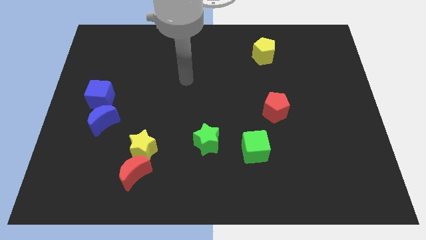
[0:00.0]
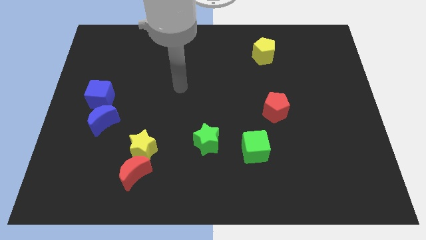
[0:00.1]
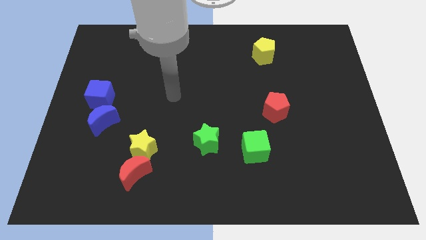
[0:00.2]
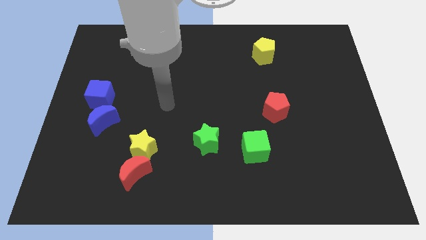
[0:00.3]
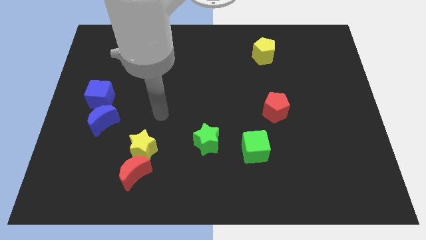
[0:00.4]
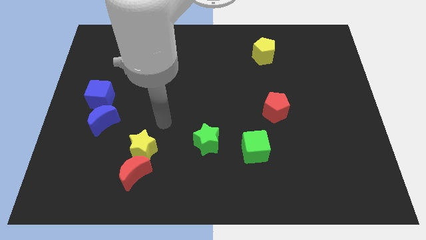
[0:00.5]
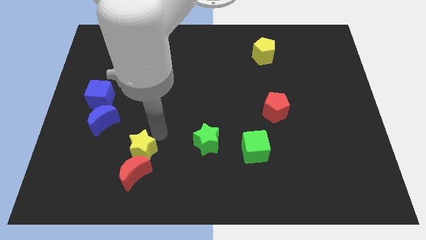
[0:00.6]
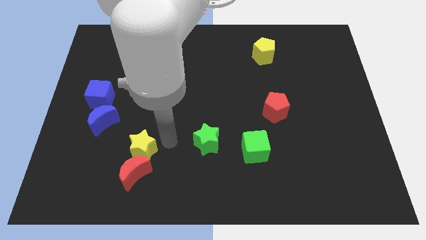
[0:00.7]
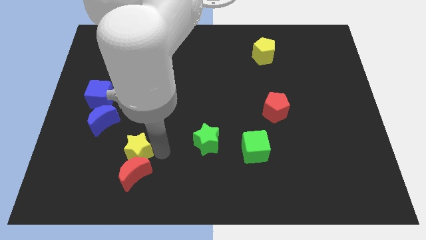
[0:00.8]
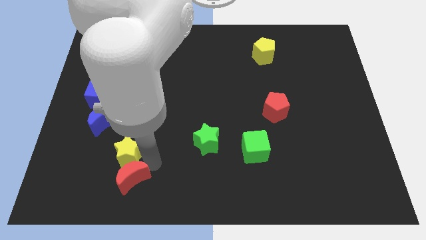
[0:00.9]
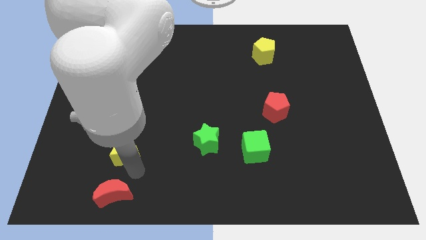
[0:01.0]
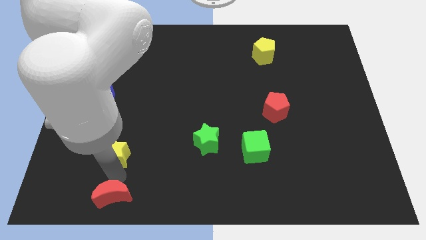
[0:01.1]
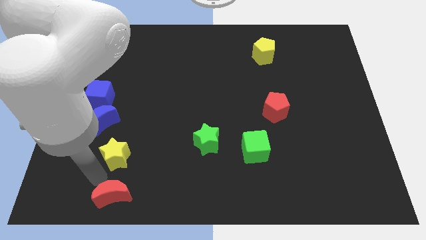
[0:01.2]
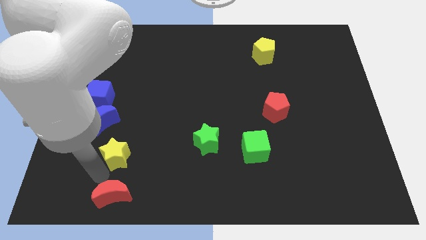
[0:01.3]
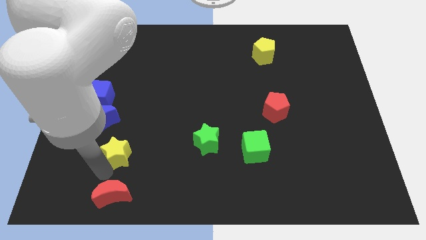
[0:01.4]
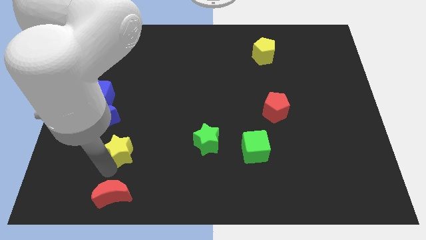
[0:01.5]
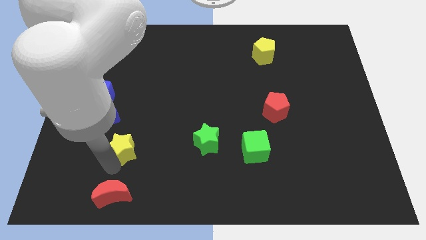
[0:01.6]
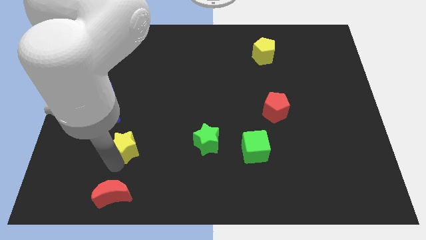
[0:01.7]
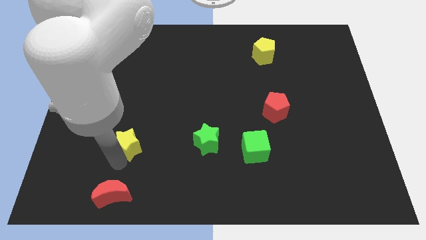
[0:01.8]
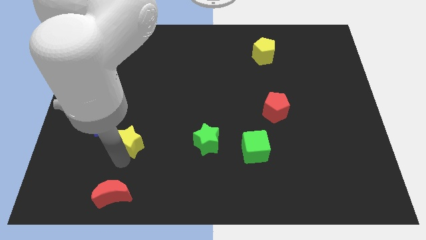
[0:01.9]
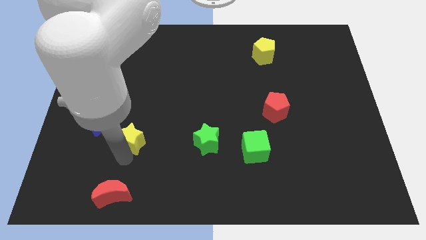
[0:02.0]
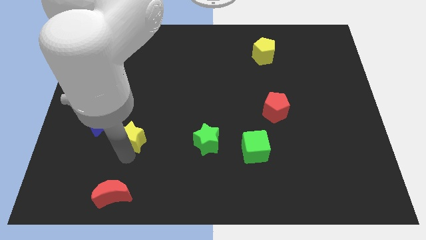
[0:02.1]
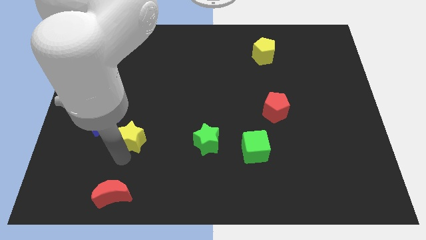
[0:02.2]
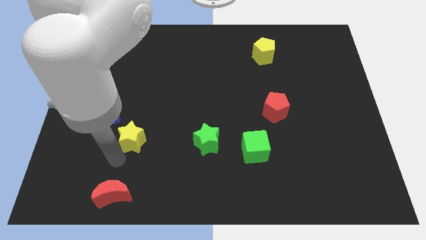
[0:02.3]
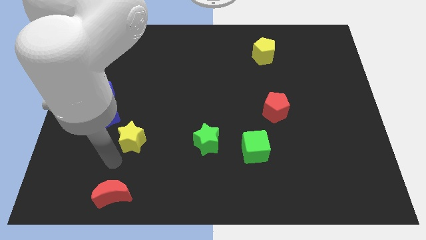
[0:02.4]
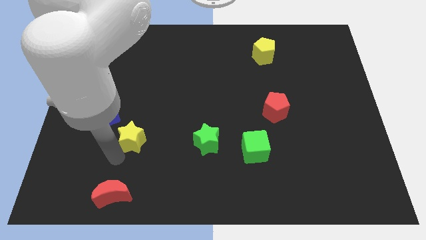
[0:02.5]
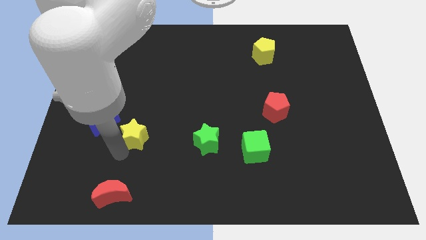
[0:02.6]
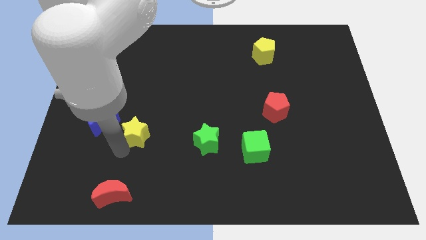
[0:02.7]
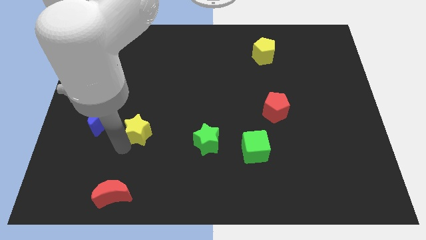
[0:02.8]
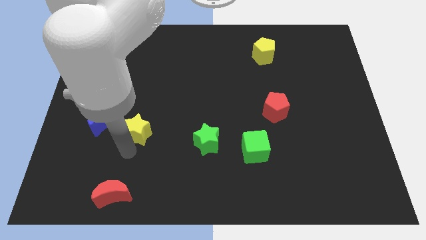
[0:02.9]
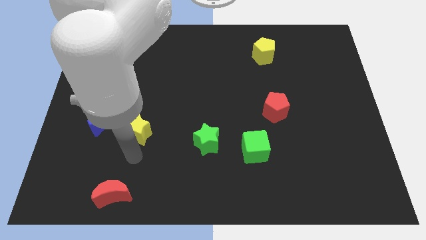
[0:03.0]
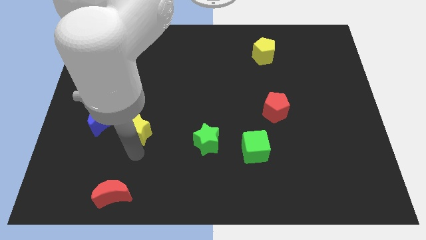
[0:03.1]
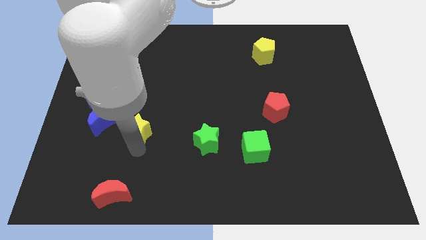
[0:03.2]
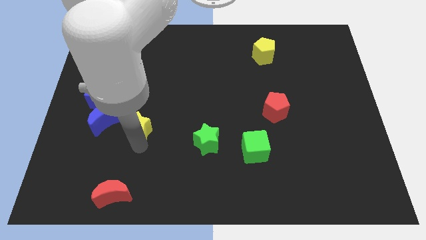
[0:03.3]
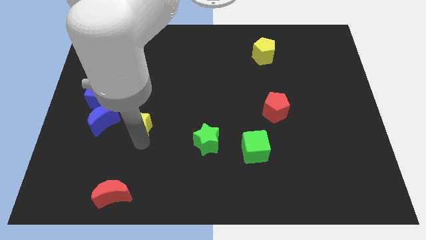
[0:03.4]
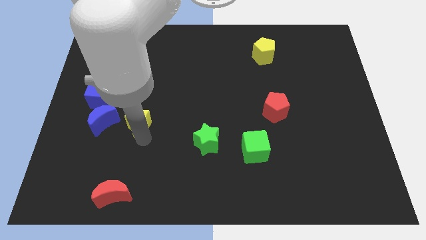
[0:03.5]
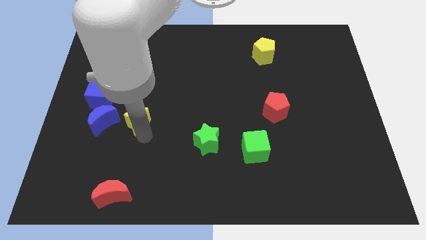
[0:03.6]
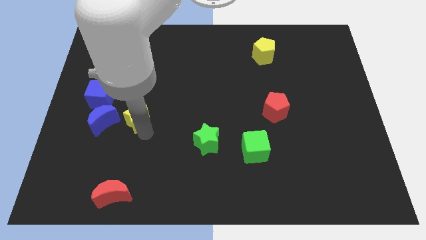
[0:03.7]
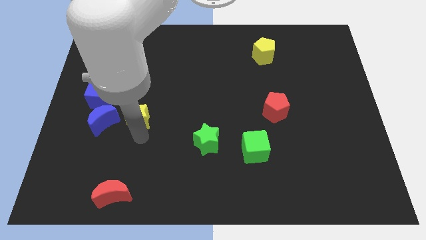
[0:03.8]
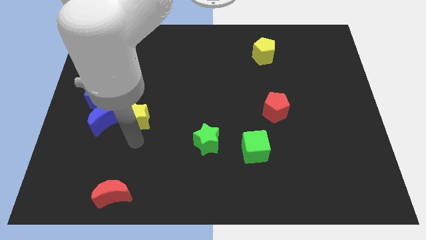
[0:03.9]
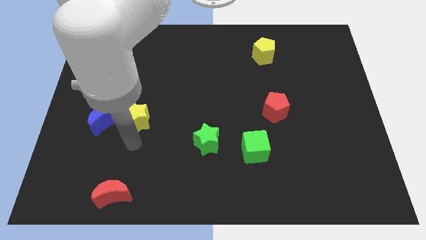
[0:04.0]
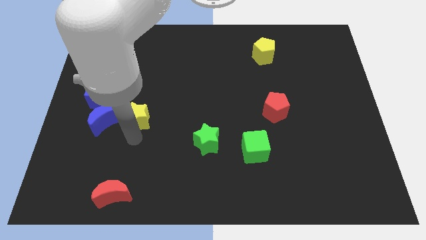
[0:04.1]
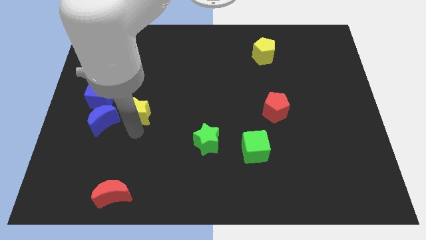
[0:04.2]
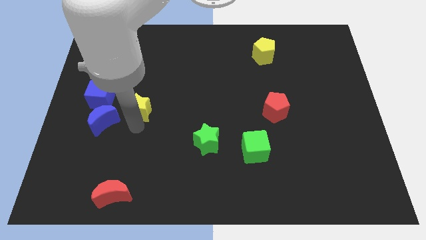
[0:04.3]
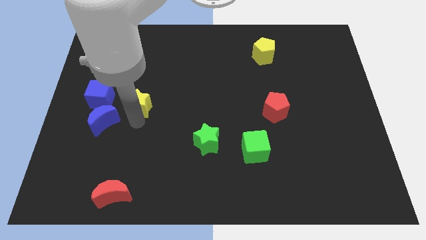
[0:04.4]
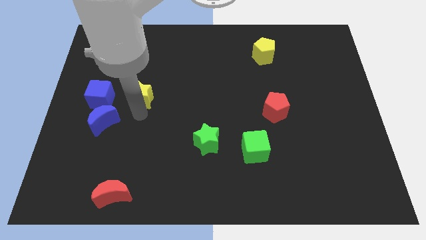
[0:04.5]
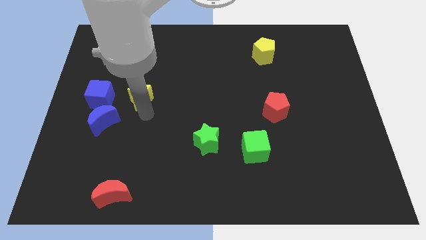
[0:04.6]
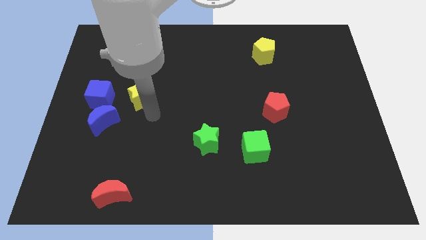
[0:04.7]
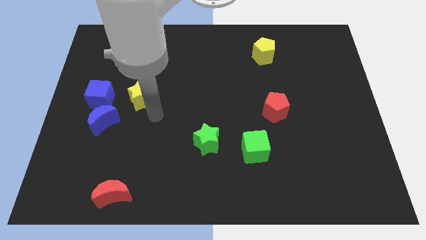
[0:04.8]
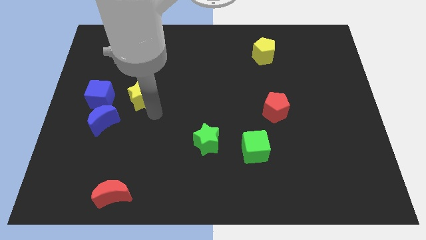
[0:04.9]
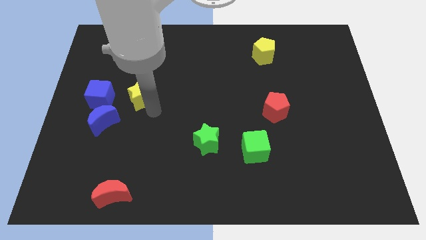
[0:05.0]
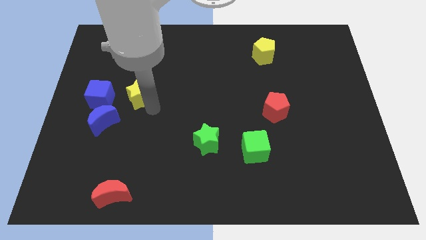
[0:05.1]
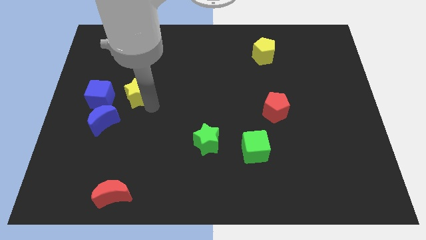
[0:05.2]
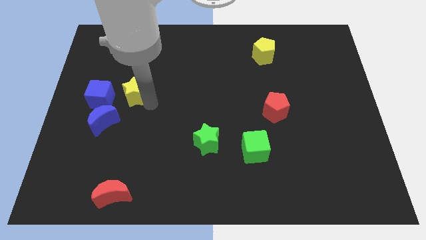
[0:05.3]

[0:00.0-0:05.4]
slide the yellow star diagonally up and to the right of the blue cube

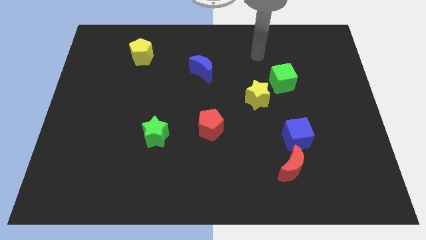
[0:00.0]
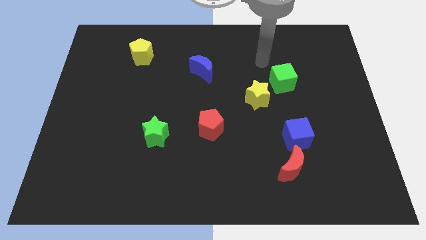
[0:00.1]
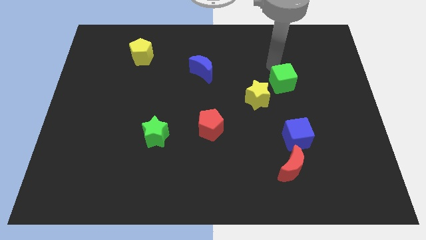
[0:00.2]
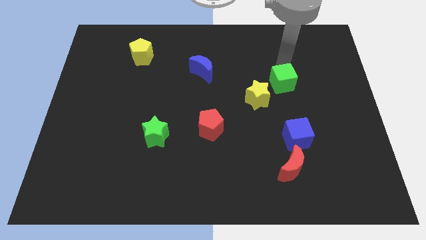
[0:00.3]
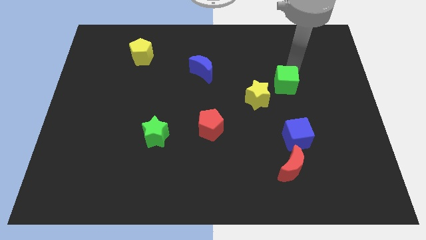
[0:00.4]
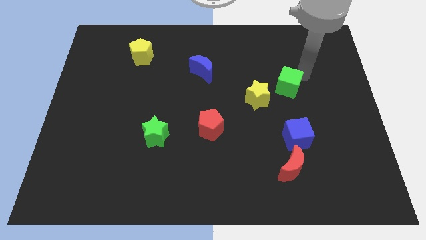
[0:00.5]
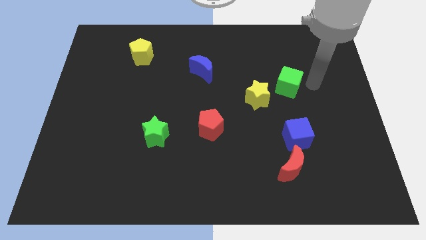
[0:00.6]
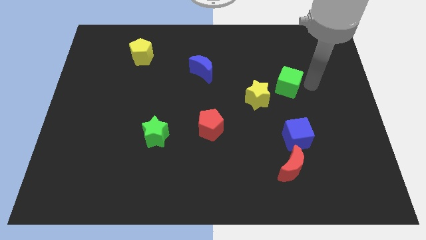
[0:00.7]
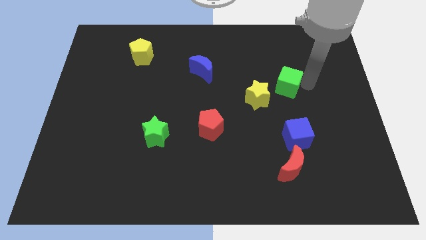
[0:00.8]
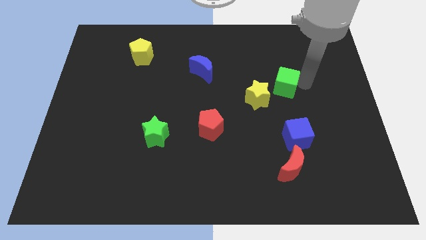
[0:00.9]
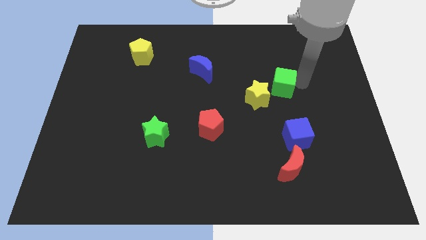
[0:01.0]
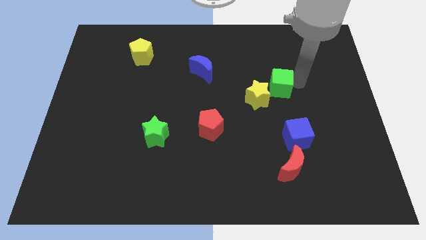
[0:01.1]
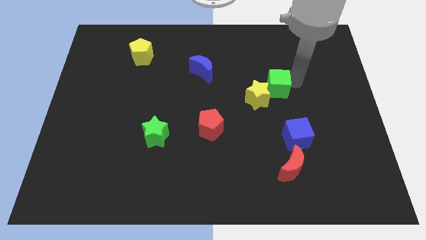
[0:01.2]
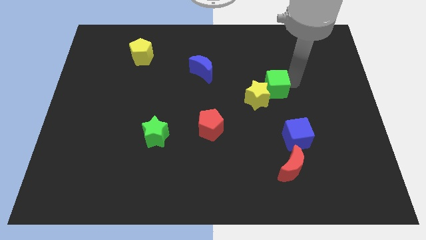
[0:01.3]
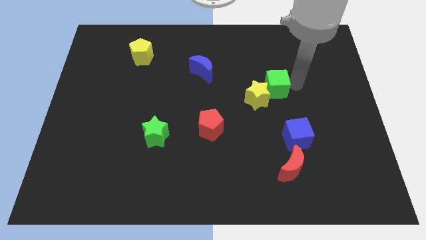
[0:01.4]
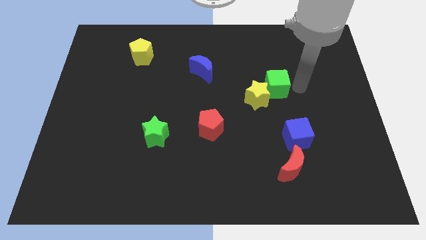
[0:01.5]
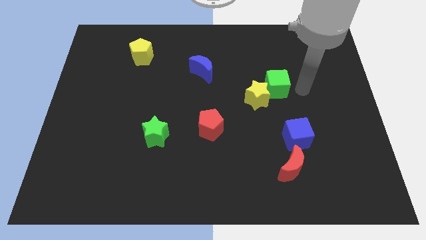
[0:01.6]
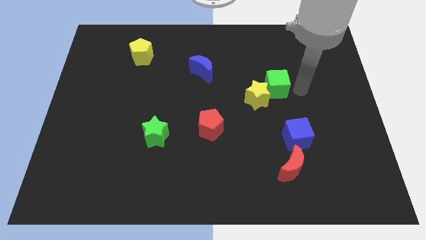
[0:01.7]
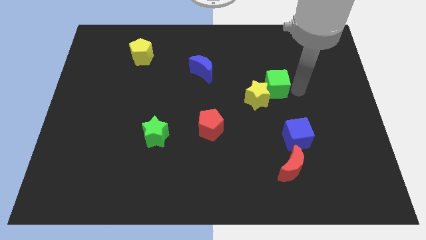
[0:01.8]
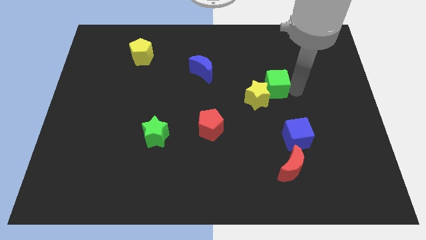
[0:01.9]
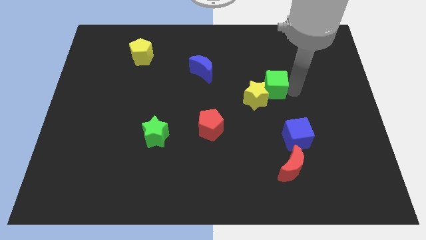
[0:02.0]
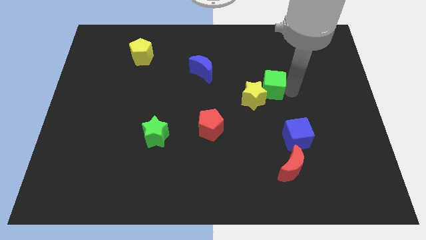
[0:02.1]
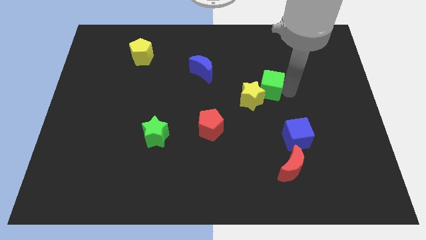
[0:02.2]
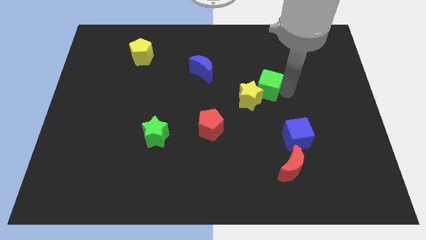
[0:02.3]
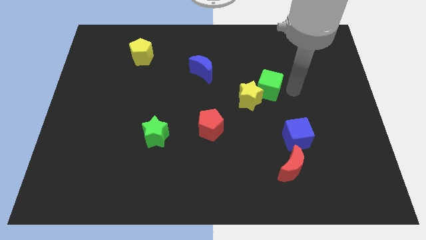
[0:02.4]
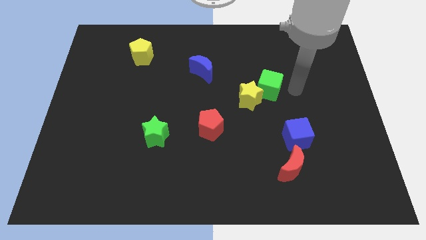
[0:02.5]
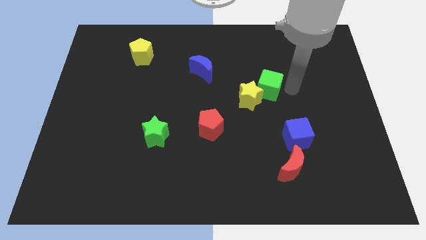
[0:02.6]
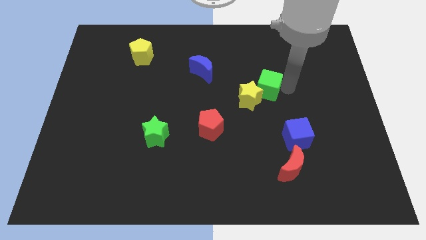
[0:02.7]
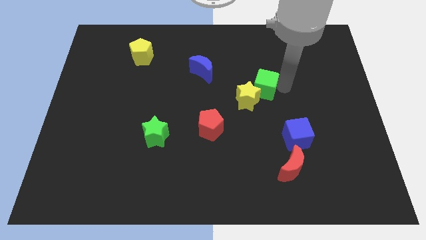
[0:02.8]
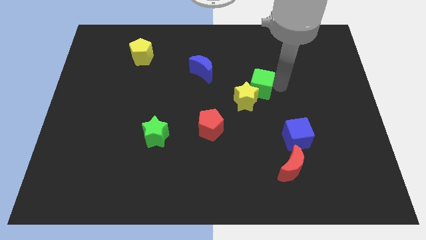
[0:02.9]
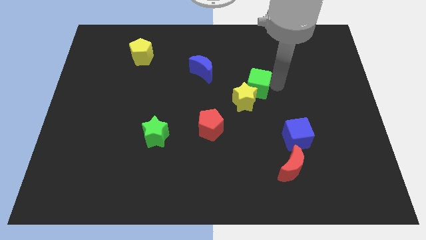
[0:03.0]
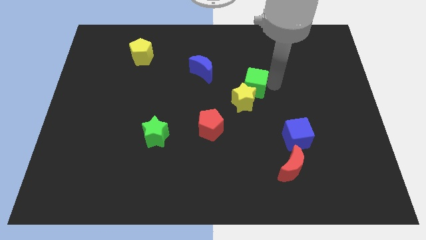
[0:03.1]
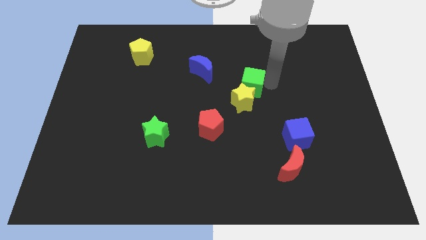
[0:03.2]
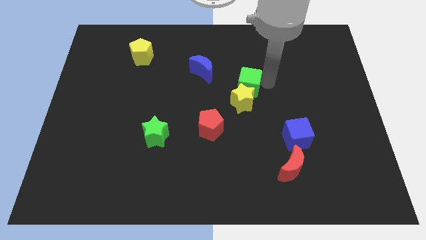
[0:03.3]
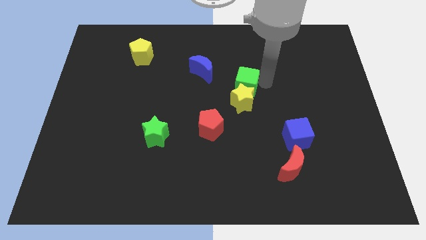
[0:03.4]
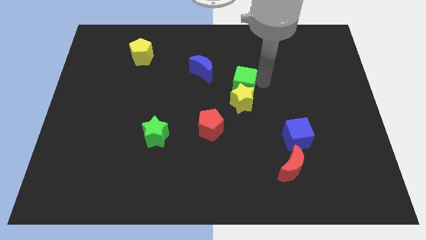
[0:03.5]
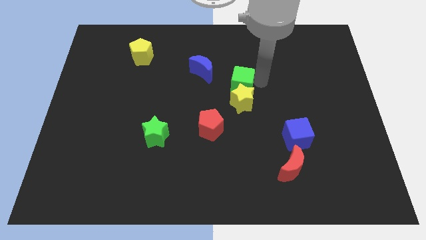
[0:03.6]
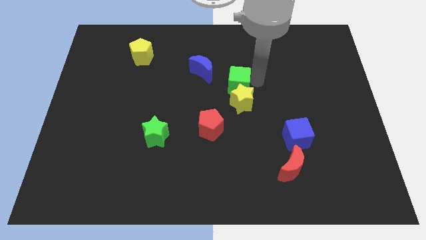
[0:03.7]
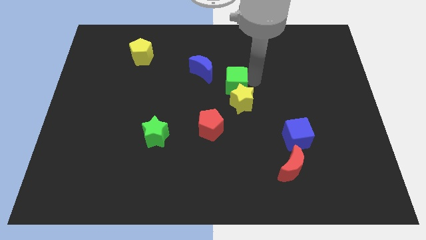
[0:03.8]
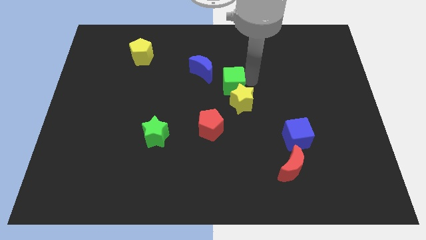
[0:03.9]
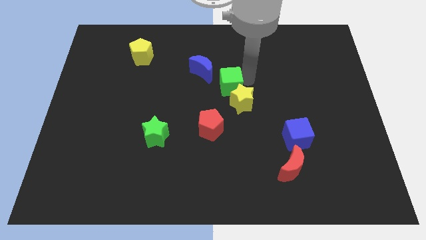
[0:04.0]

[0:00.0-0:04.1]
push the green cube to the top side of the red pentagon
